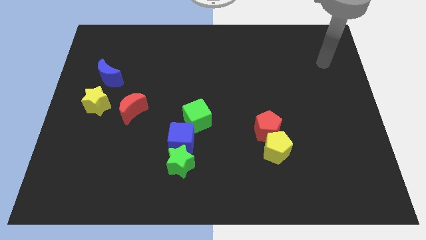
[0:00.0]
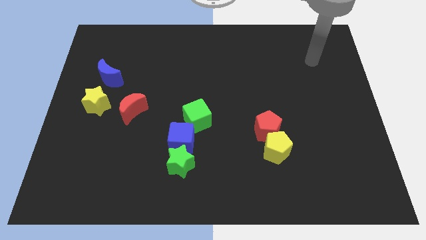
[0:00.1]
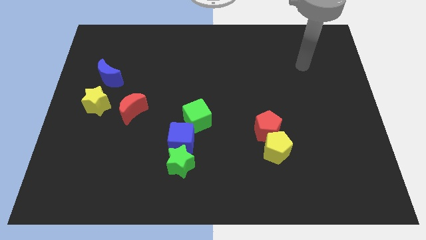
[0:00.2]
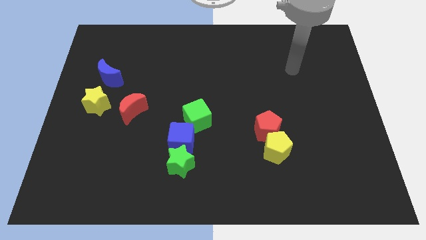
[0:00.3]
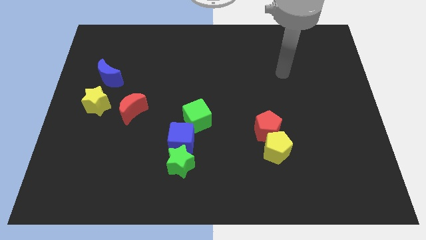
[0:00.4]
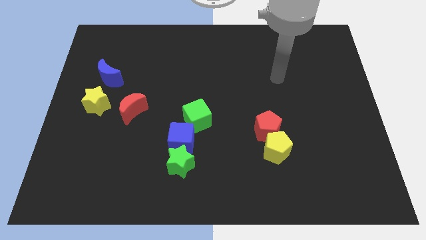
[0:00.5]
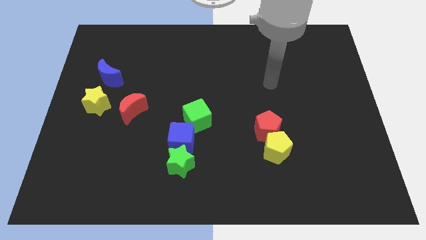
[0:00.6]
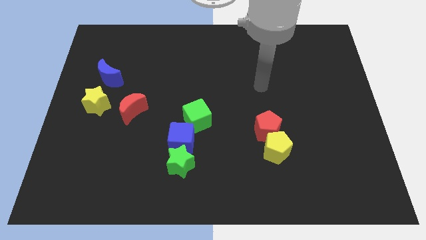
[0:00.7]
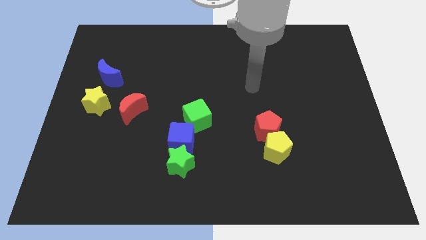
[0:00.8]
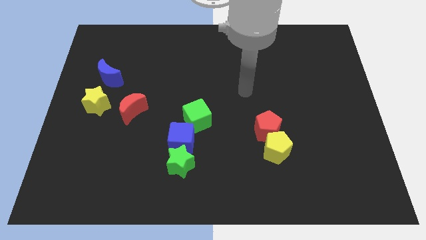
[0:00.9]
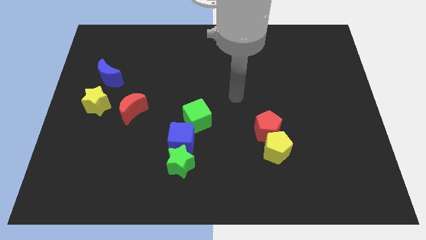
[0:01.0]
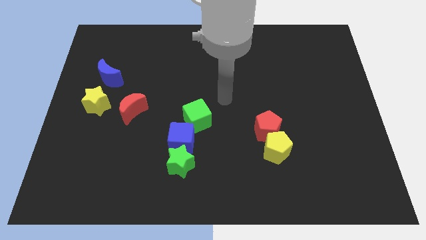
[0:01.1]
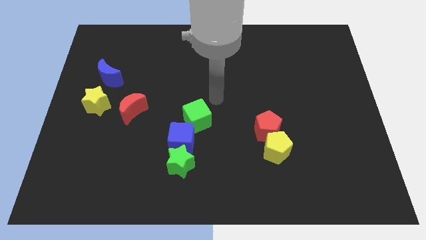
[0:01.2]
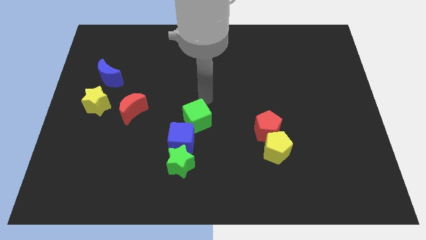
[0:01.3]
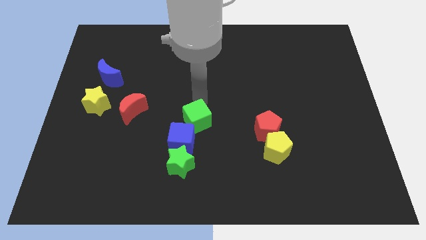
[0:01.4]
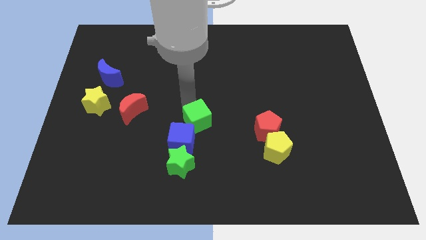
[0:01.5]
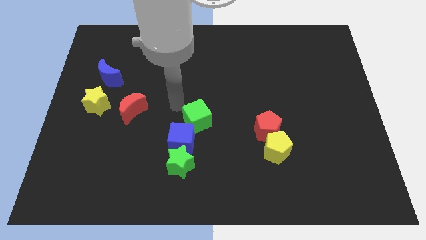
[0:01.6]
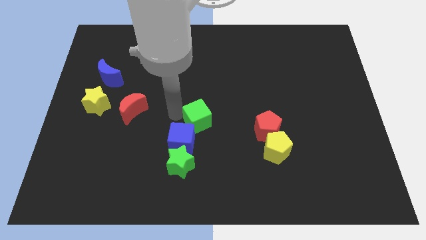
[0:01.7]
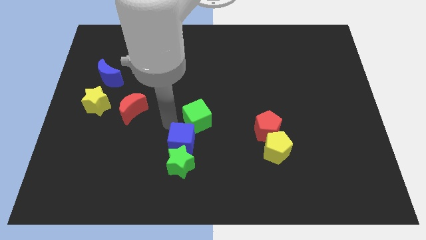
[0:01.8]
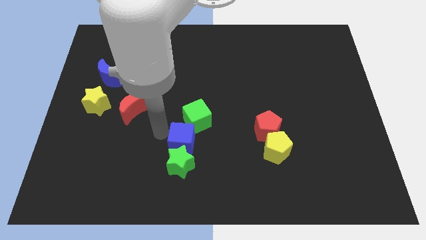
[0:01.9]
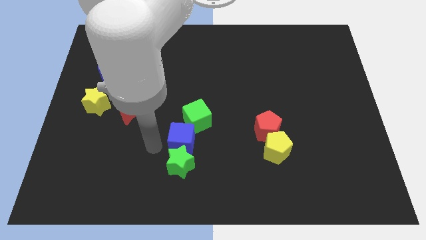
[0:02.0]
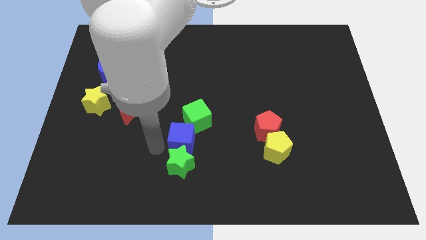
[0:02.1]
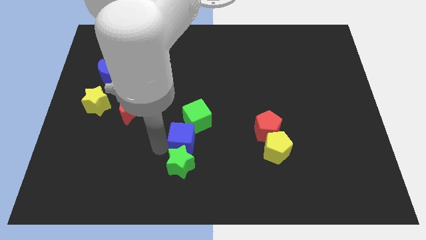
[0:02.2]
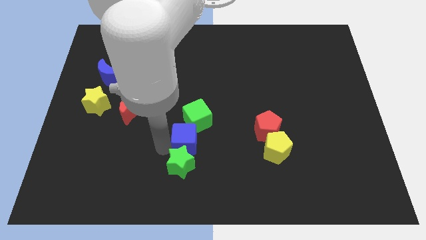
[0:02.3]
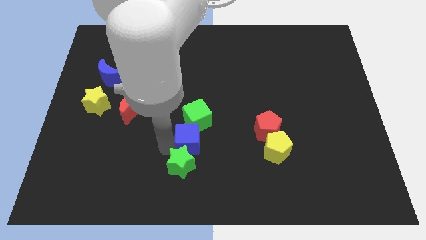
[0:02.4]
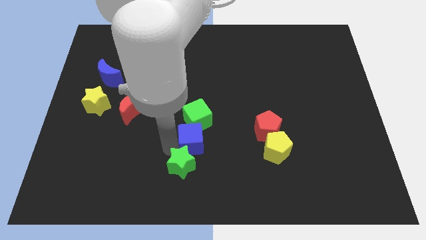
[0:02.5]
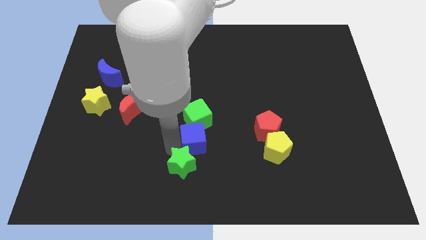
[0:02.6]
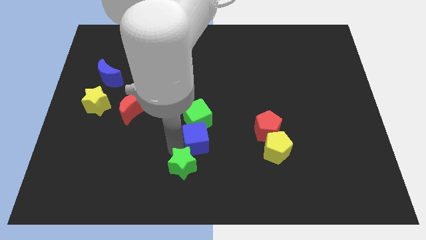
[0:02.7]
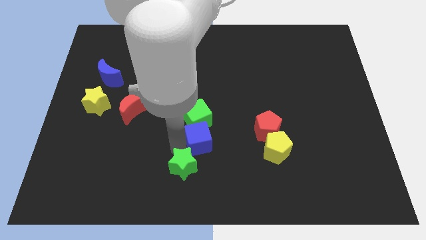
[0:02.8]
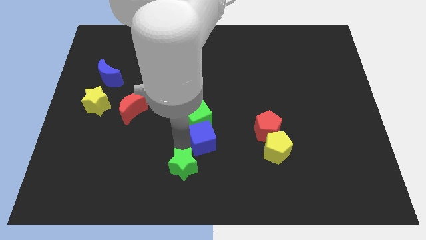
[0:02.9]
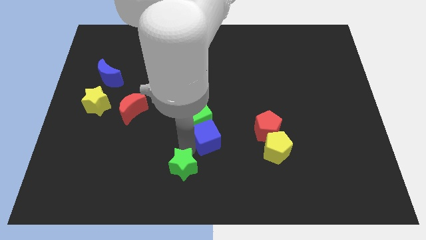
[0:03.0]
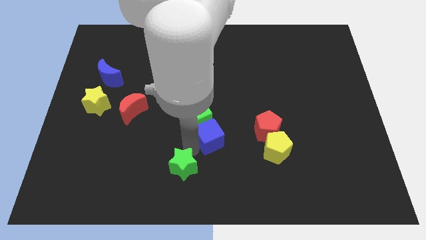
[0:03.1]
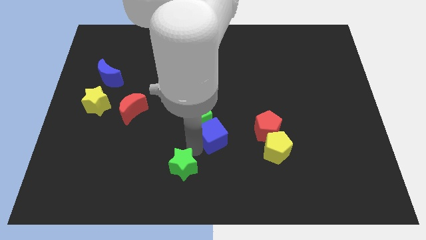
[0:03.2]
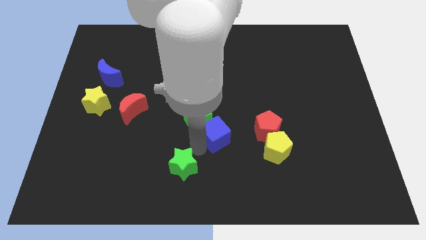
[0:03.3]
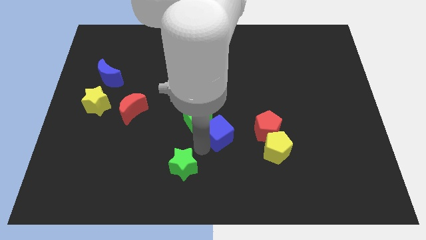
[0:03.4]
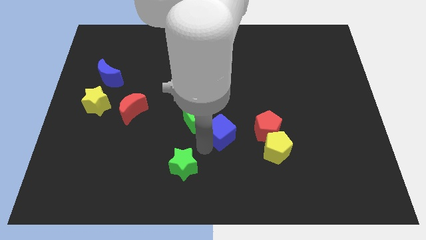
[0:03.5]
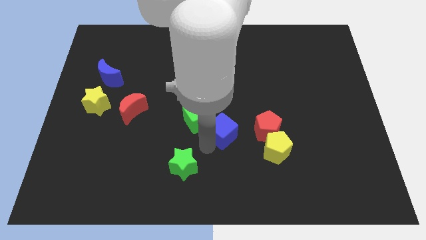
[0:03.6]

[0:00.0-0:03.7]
push the blue cube slightly up and to the right

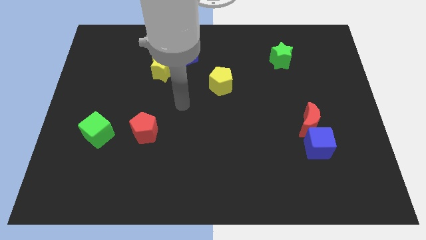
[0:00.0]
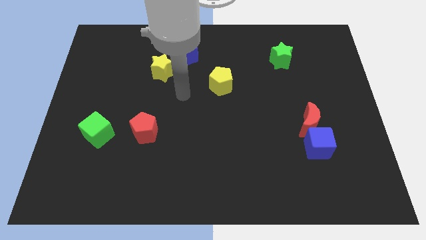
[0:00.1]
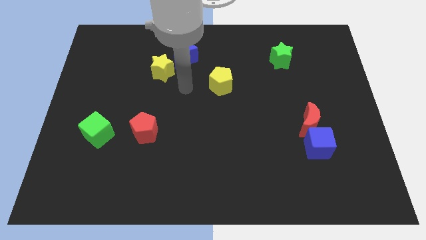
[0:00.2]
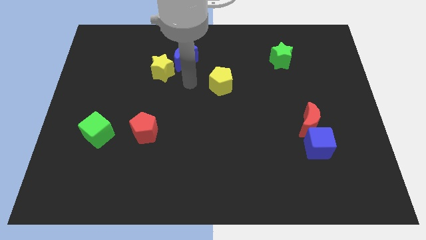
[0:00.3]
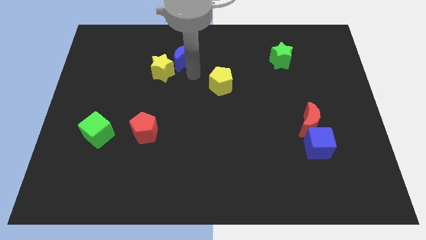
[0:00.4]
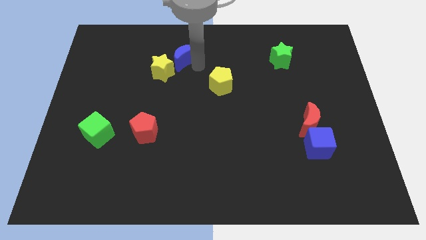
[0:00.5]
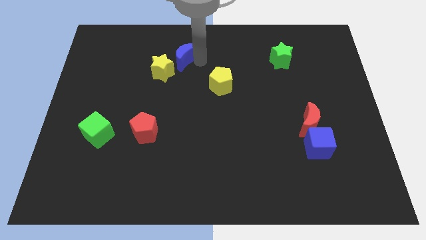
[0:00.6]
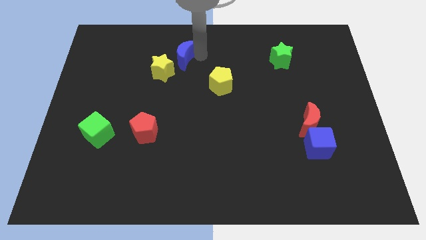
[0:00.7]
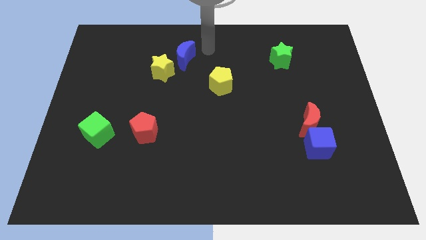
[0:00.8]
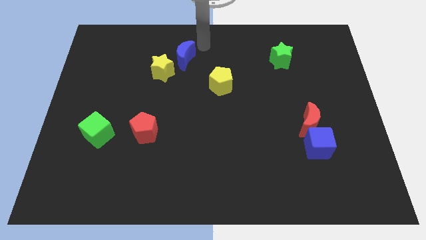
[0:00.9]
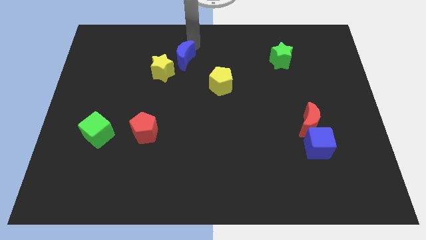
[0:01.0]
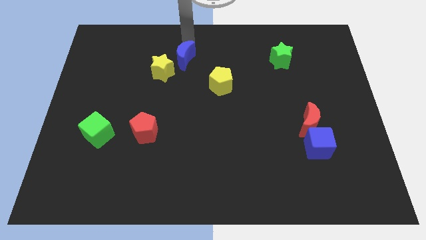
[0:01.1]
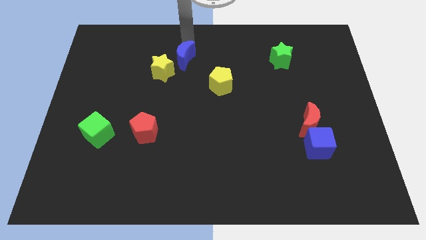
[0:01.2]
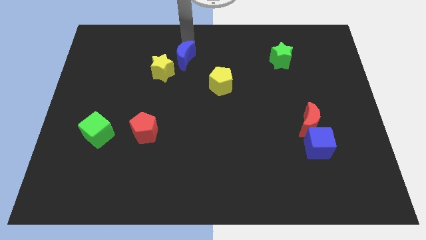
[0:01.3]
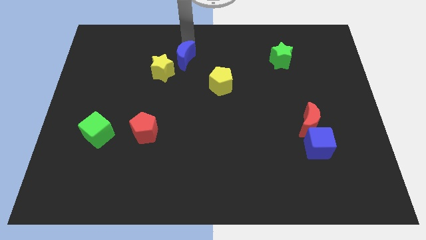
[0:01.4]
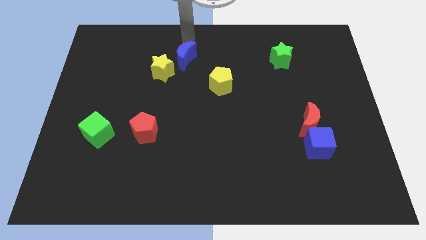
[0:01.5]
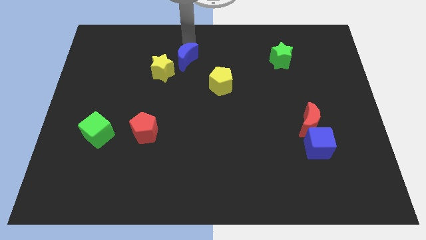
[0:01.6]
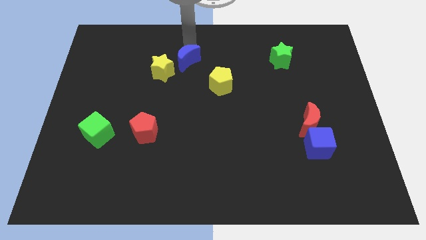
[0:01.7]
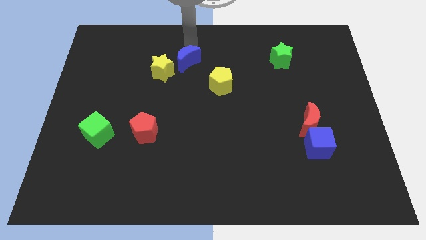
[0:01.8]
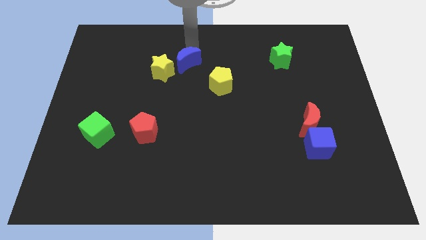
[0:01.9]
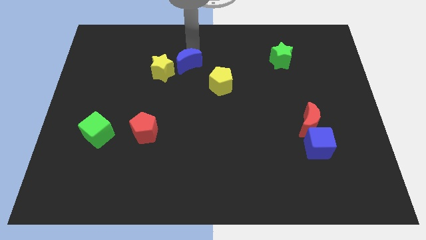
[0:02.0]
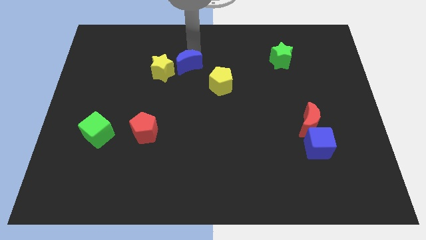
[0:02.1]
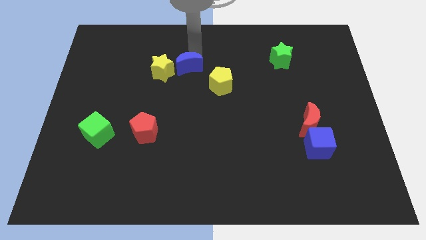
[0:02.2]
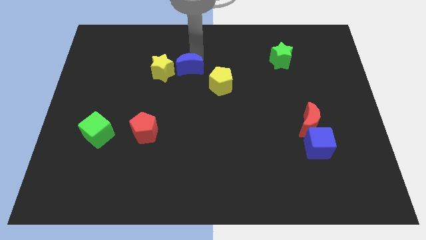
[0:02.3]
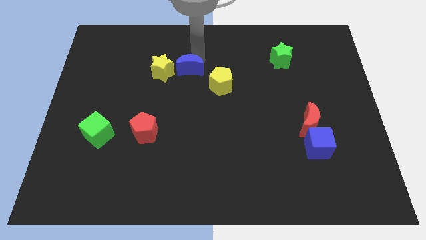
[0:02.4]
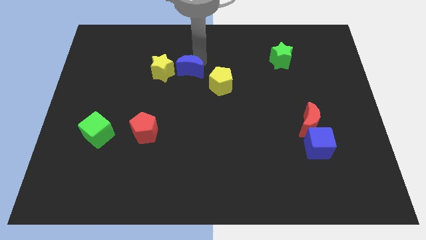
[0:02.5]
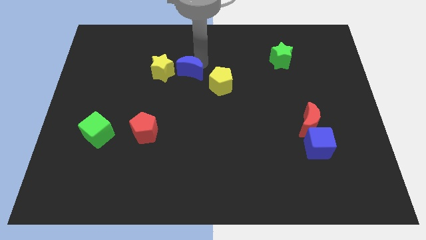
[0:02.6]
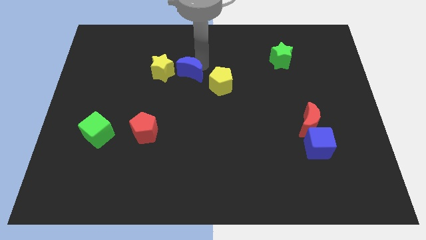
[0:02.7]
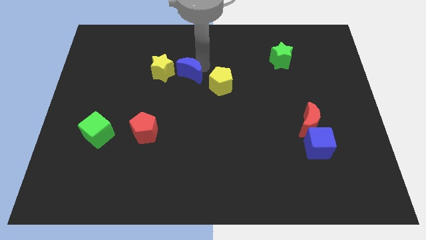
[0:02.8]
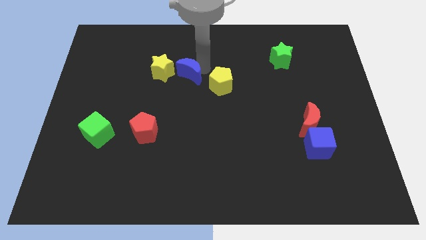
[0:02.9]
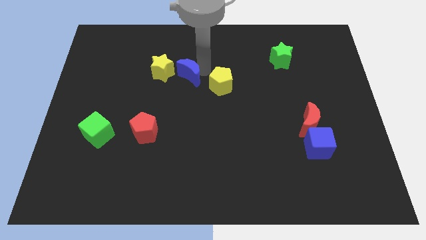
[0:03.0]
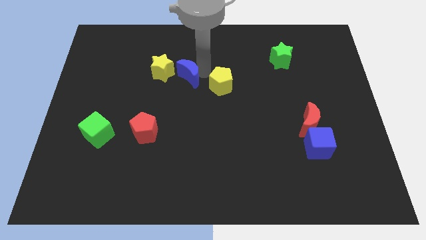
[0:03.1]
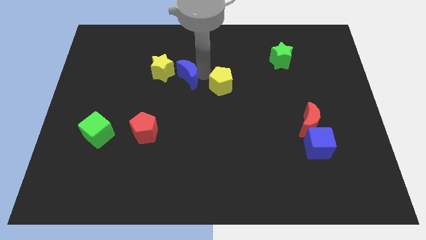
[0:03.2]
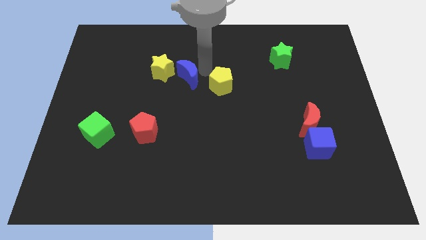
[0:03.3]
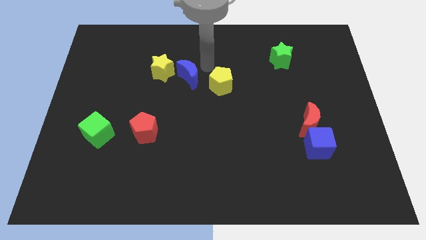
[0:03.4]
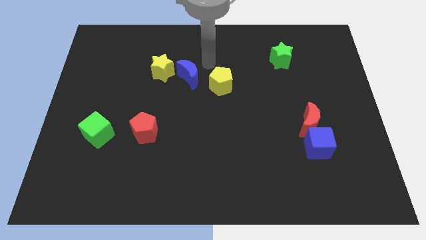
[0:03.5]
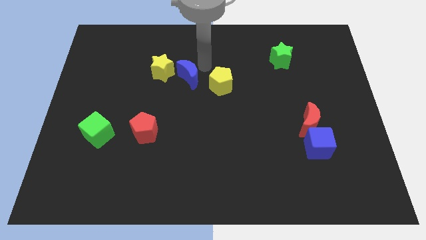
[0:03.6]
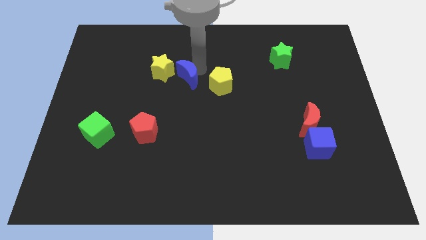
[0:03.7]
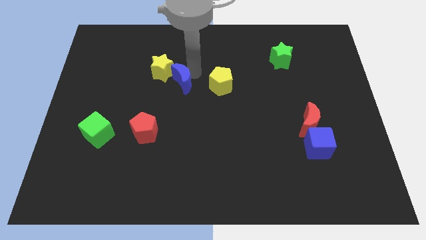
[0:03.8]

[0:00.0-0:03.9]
push the blue moon downwards slightly
